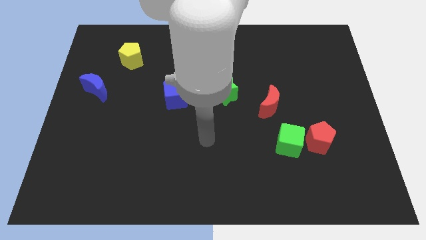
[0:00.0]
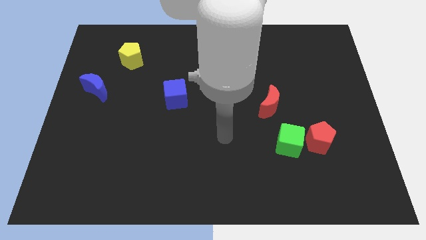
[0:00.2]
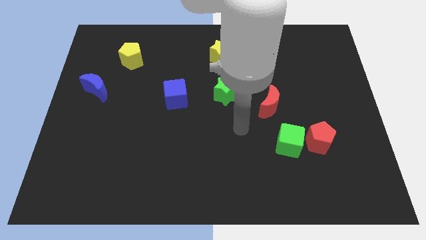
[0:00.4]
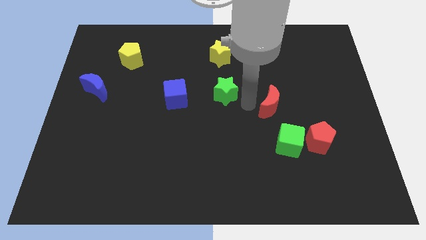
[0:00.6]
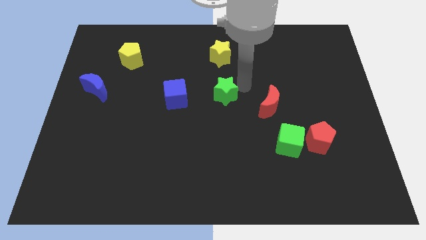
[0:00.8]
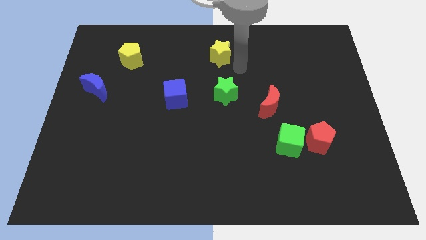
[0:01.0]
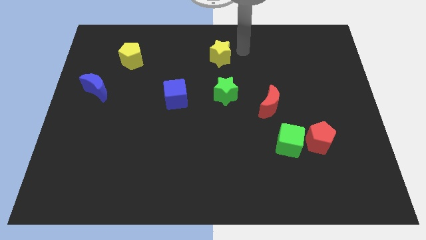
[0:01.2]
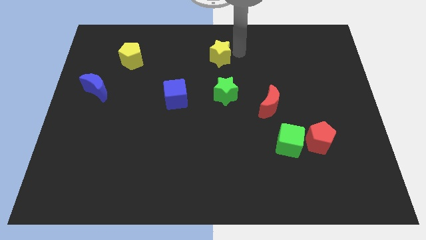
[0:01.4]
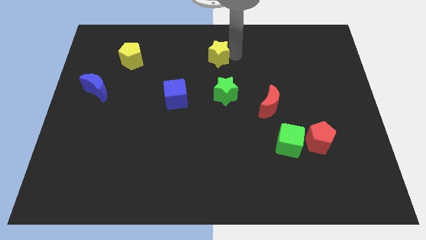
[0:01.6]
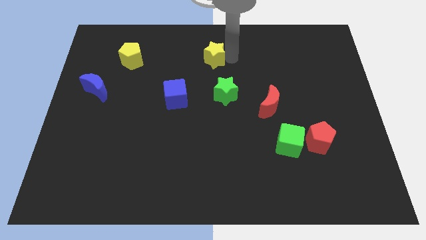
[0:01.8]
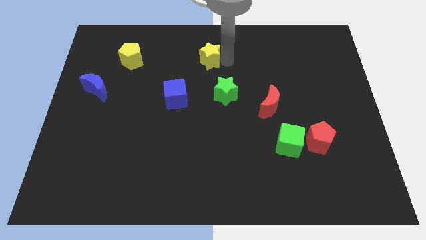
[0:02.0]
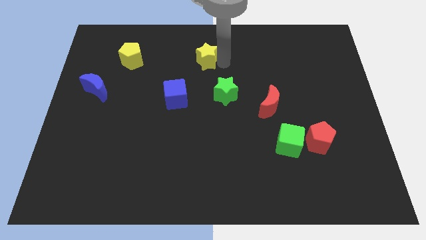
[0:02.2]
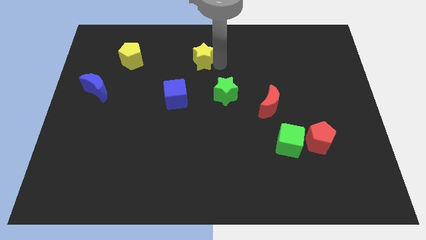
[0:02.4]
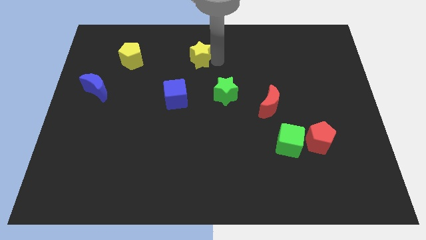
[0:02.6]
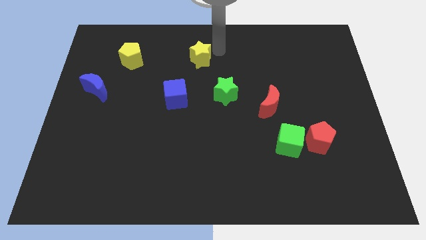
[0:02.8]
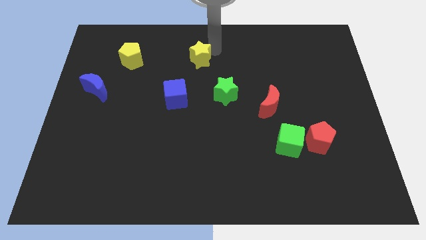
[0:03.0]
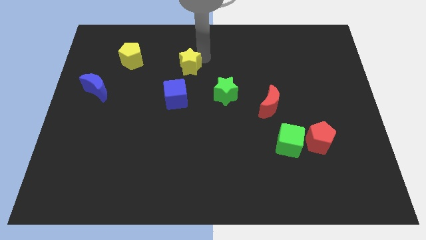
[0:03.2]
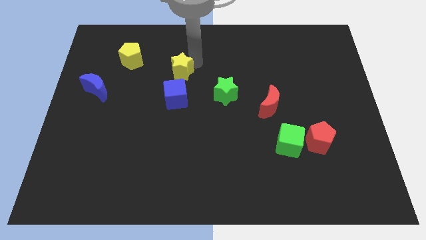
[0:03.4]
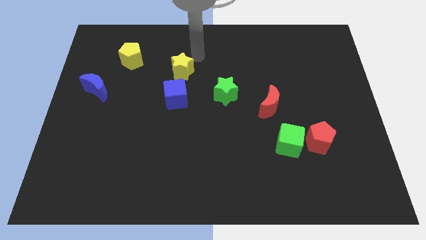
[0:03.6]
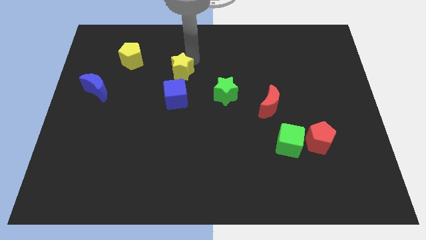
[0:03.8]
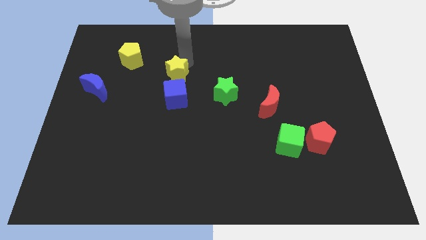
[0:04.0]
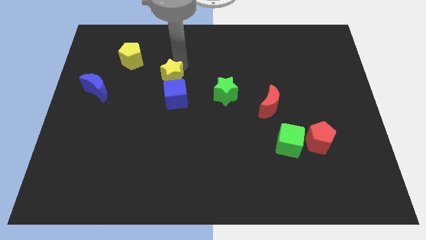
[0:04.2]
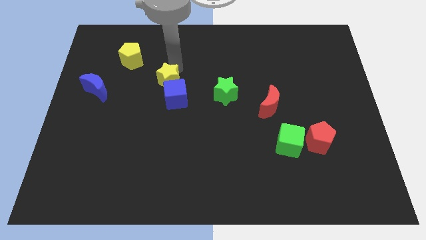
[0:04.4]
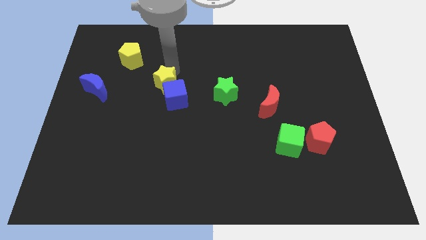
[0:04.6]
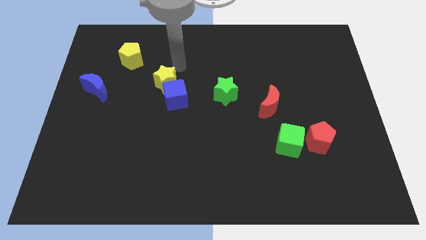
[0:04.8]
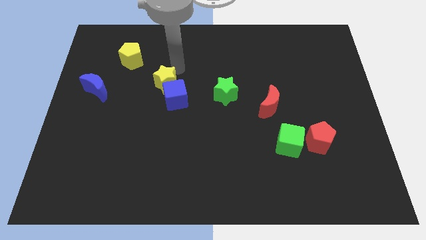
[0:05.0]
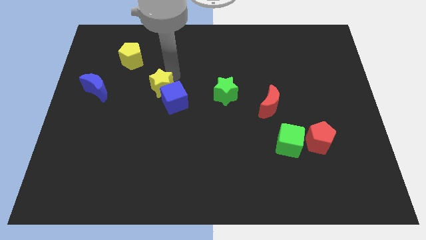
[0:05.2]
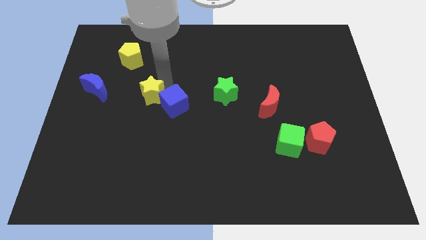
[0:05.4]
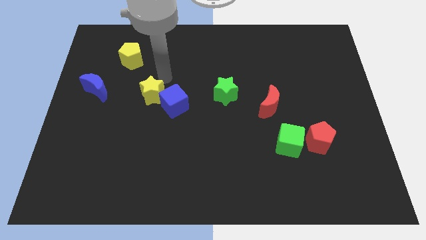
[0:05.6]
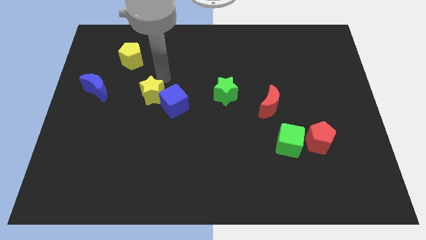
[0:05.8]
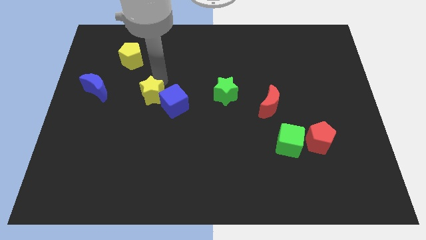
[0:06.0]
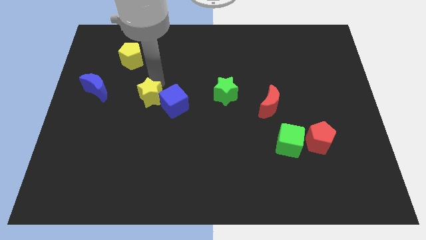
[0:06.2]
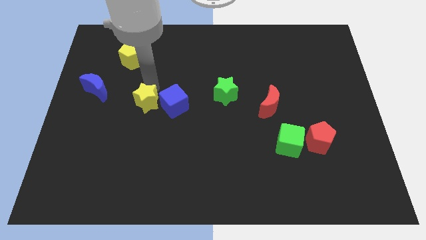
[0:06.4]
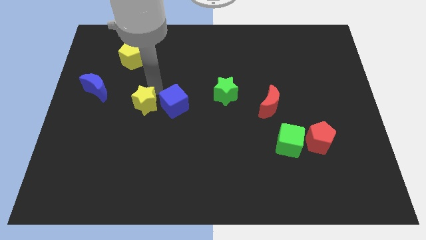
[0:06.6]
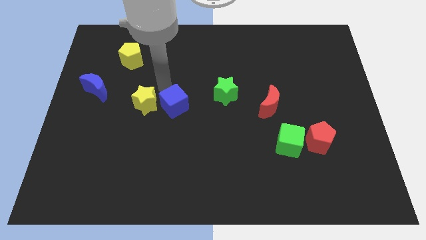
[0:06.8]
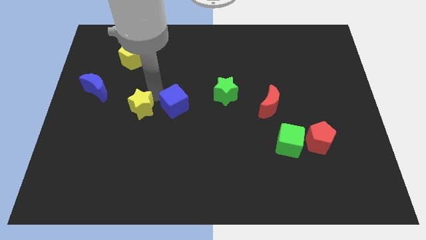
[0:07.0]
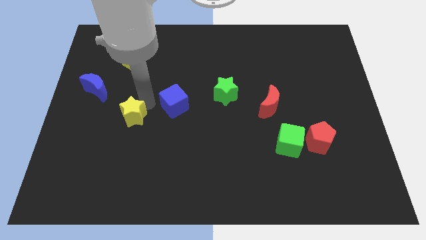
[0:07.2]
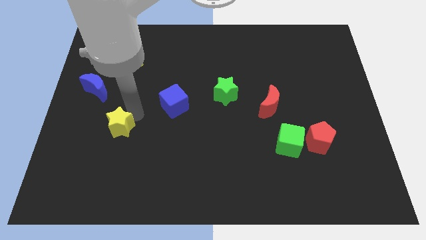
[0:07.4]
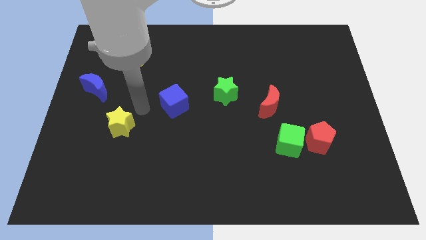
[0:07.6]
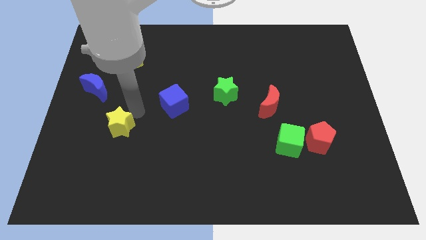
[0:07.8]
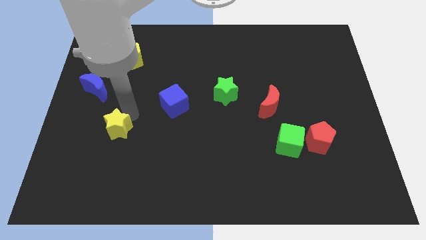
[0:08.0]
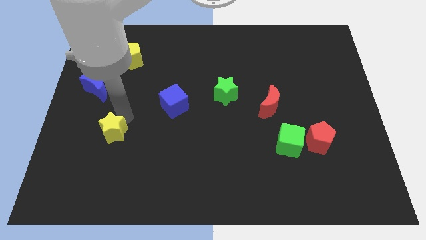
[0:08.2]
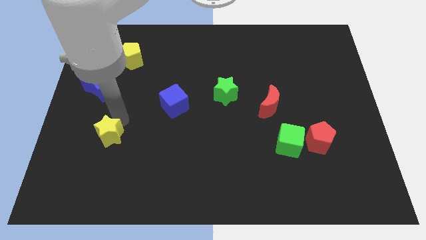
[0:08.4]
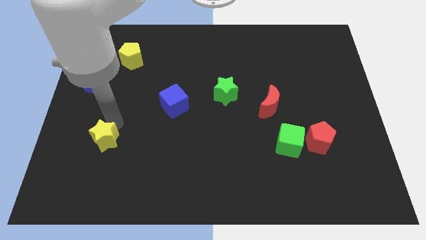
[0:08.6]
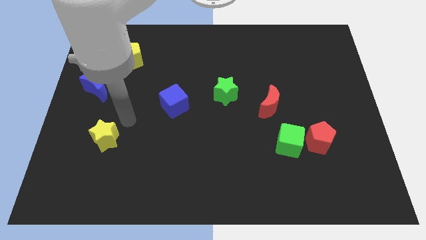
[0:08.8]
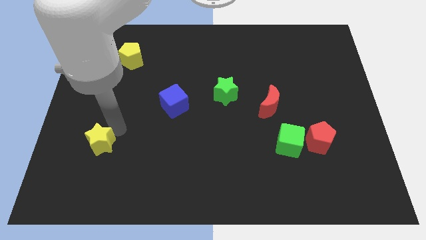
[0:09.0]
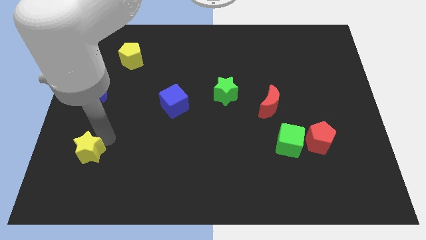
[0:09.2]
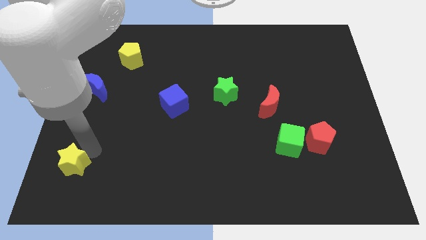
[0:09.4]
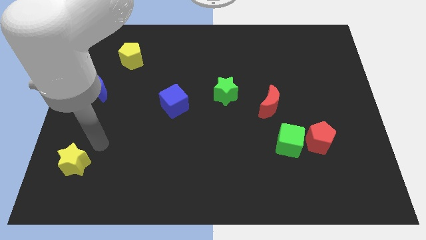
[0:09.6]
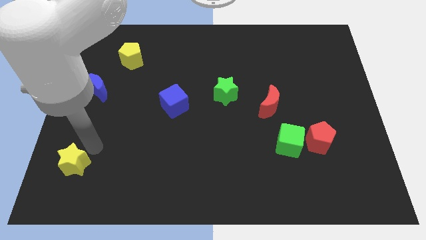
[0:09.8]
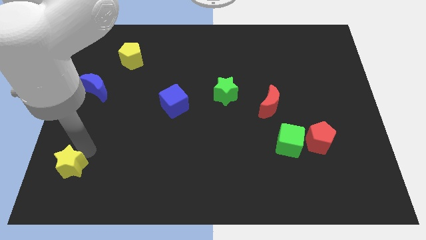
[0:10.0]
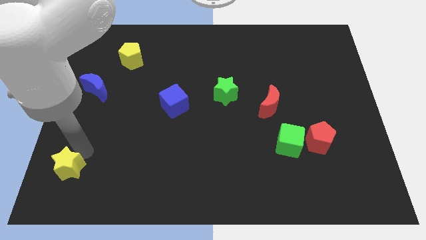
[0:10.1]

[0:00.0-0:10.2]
push the yellow star to the lower left corner

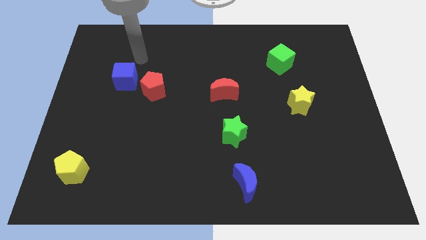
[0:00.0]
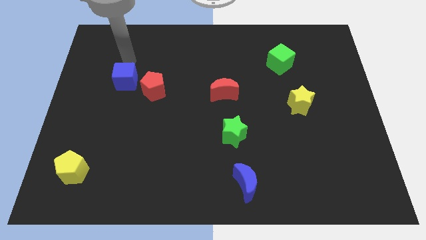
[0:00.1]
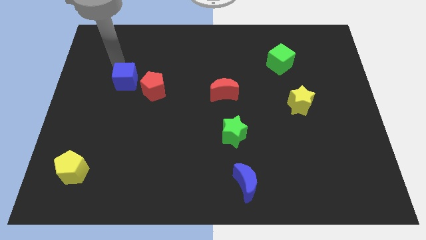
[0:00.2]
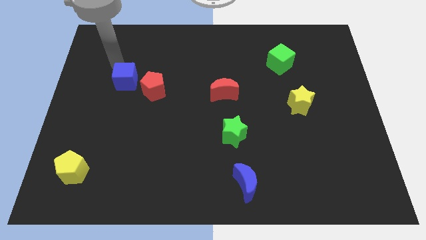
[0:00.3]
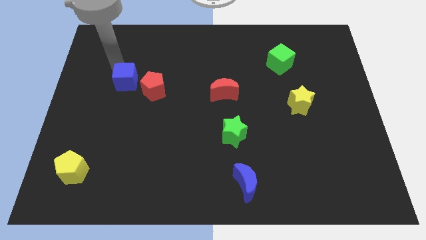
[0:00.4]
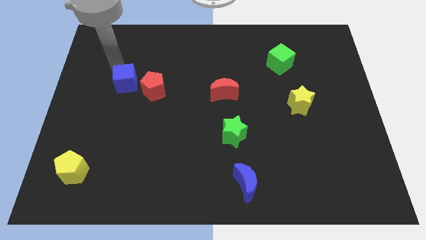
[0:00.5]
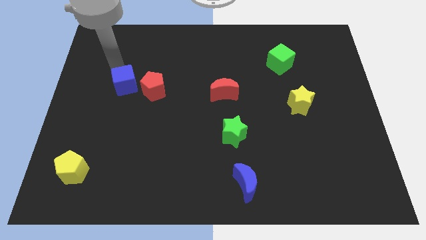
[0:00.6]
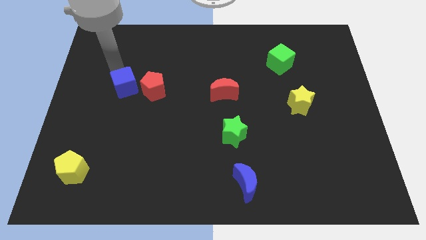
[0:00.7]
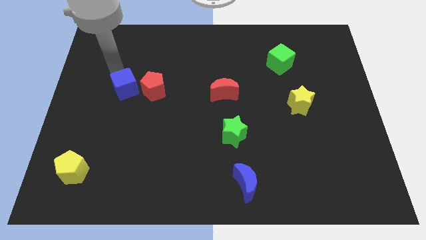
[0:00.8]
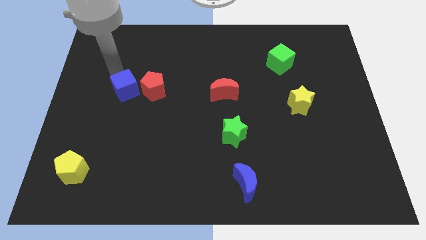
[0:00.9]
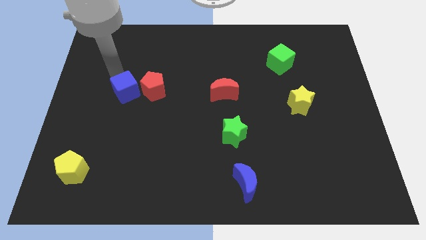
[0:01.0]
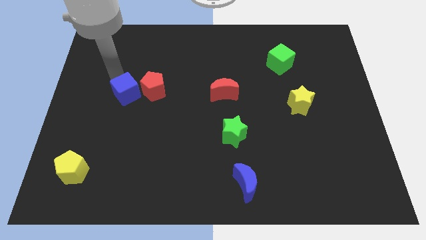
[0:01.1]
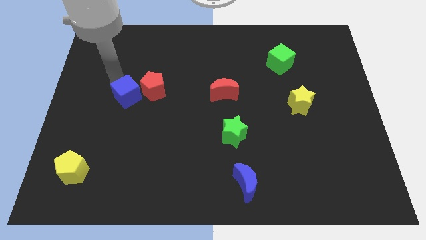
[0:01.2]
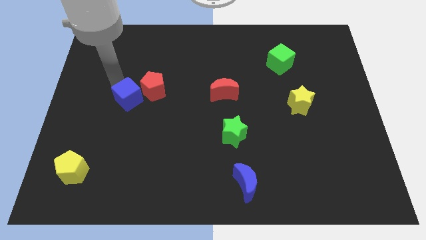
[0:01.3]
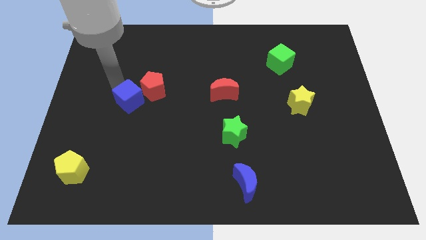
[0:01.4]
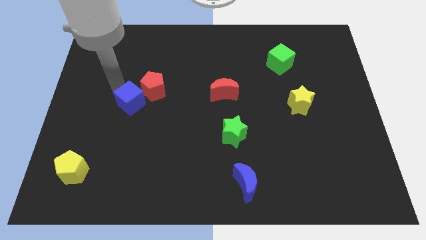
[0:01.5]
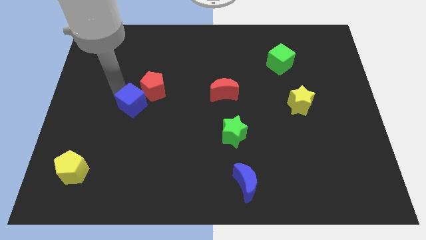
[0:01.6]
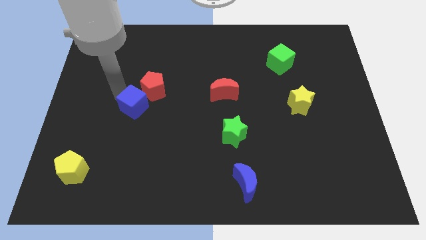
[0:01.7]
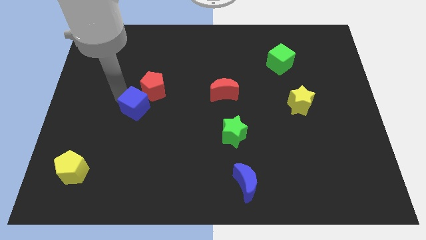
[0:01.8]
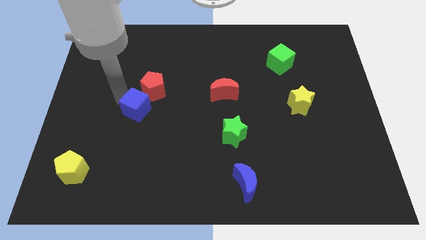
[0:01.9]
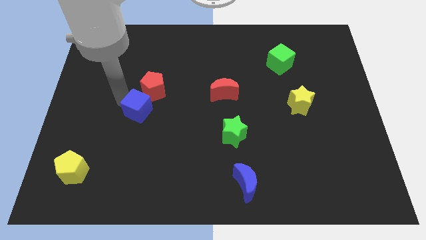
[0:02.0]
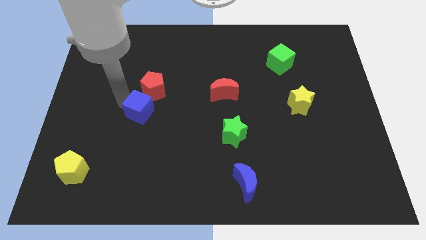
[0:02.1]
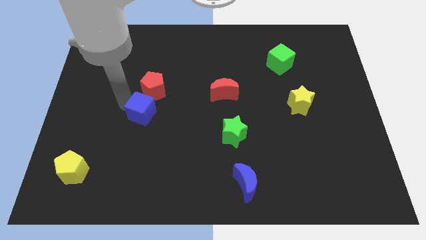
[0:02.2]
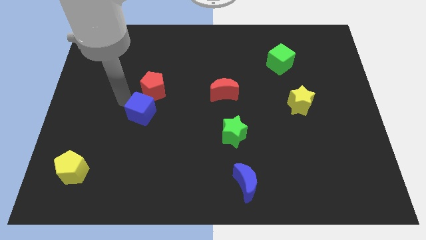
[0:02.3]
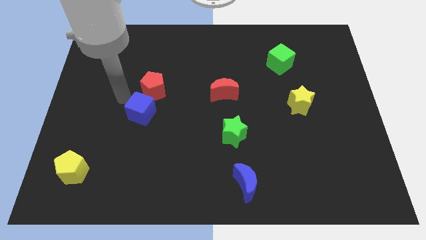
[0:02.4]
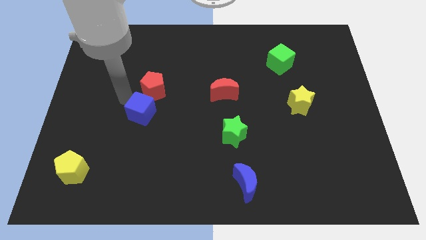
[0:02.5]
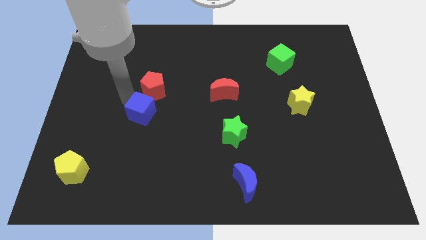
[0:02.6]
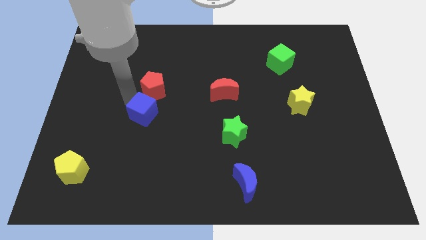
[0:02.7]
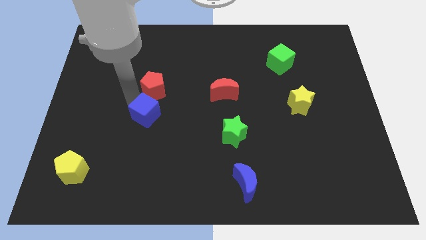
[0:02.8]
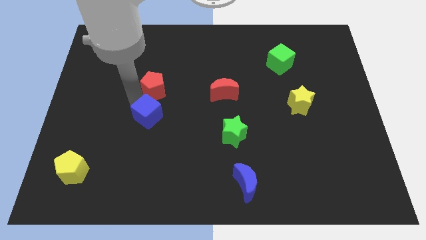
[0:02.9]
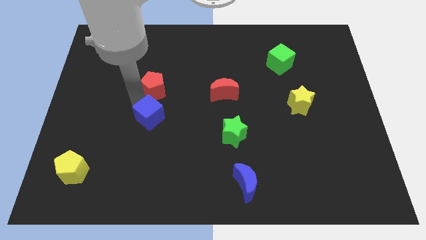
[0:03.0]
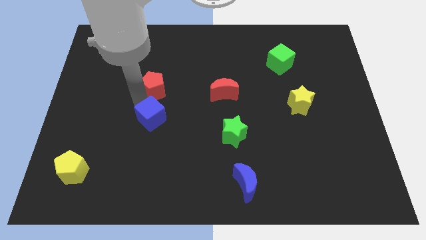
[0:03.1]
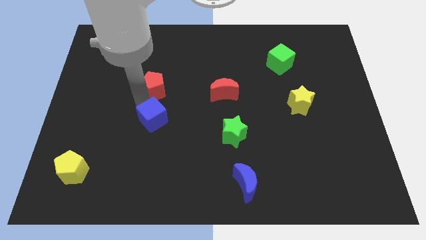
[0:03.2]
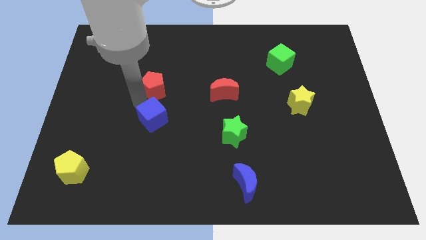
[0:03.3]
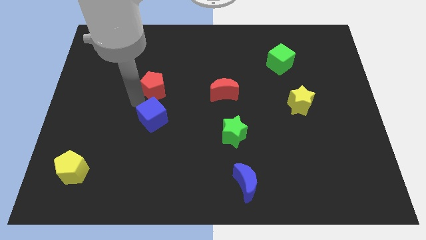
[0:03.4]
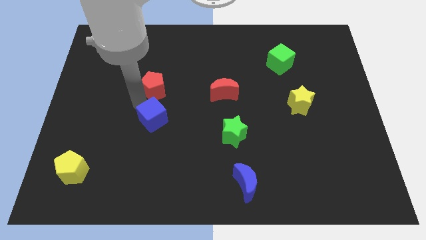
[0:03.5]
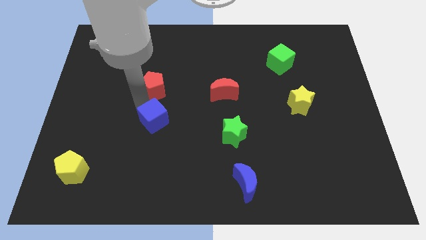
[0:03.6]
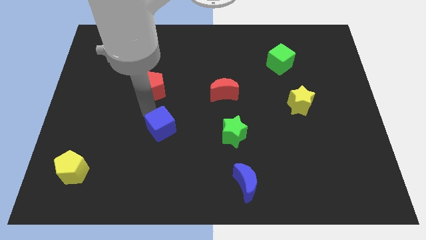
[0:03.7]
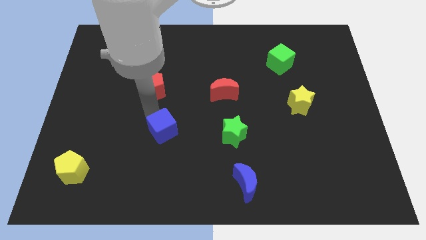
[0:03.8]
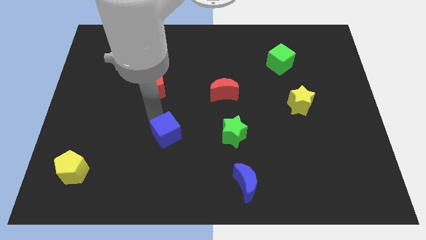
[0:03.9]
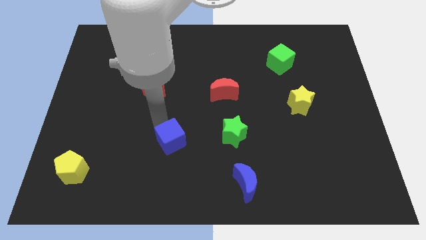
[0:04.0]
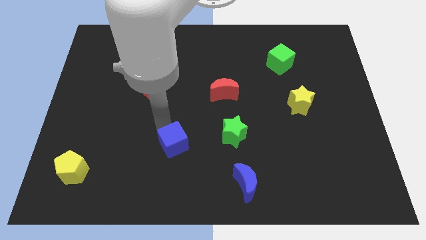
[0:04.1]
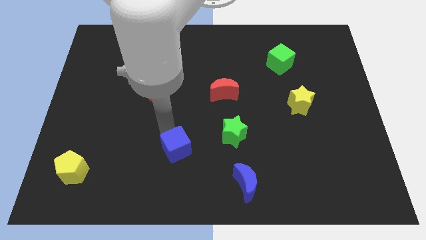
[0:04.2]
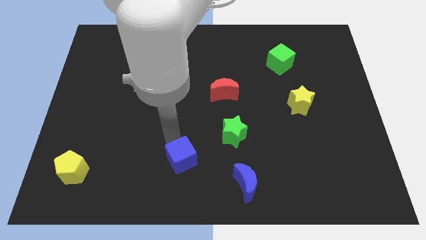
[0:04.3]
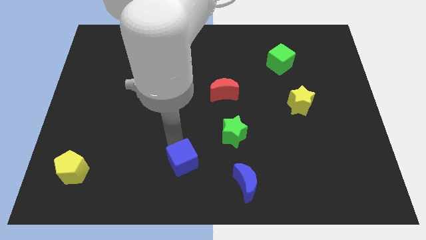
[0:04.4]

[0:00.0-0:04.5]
slide the blue cube to the bottom side
